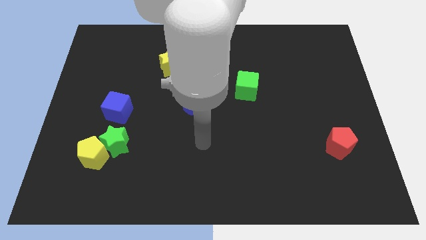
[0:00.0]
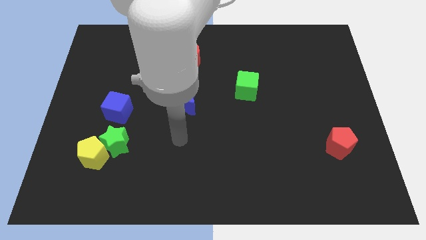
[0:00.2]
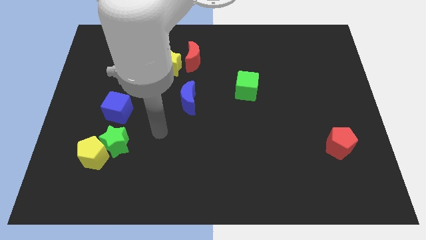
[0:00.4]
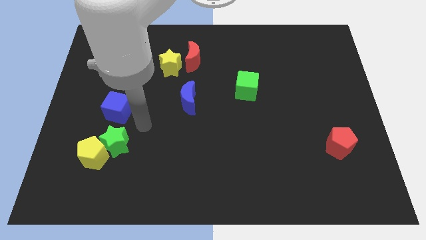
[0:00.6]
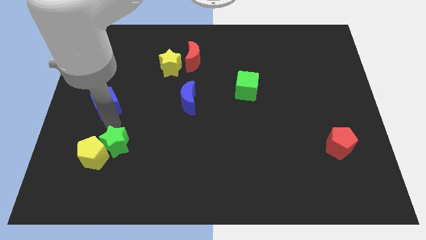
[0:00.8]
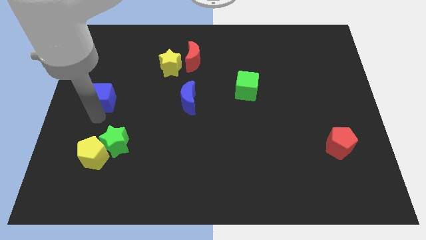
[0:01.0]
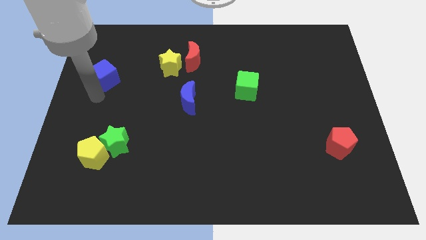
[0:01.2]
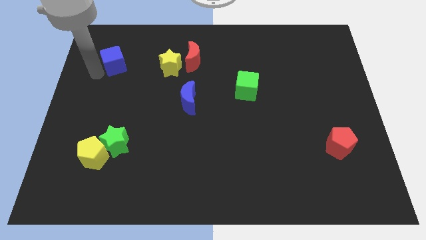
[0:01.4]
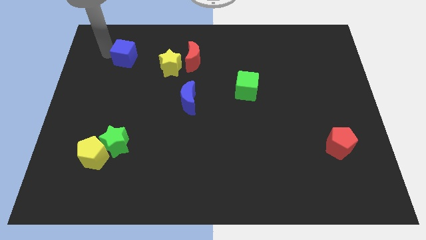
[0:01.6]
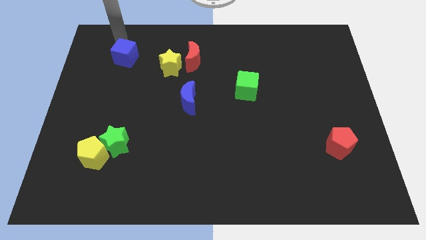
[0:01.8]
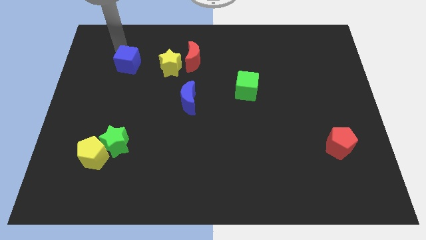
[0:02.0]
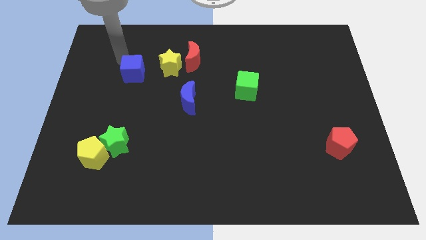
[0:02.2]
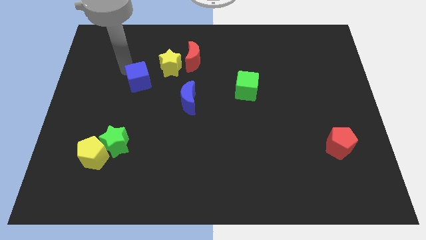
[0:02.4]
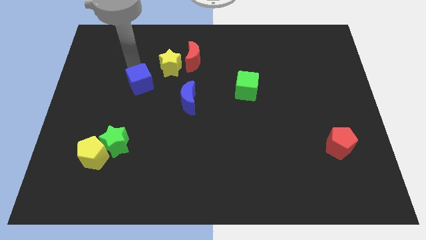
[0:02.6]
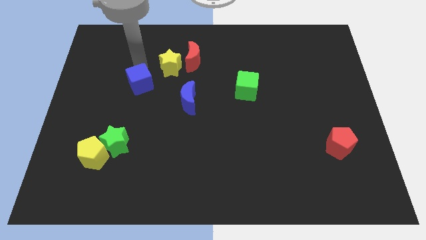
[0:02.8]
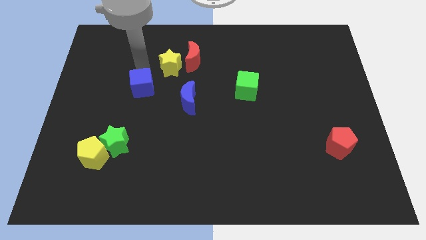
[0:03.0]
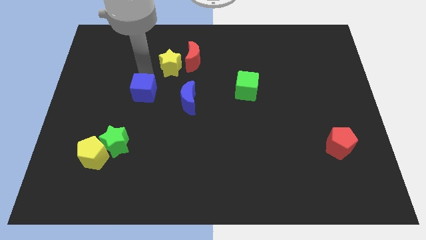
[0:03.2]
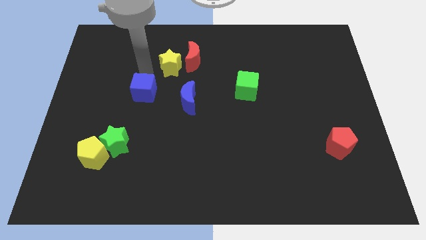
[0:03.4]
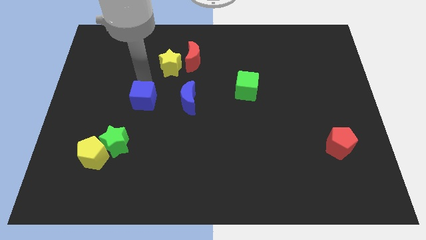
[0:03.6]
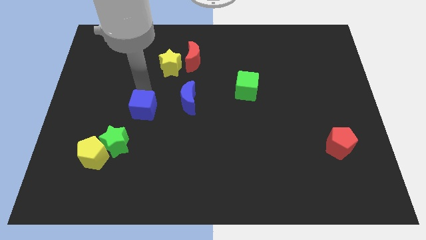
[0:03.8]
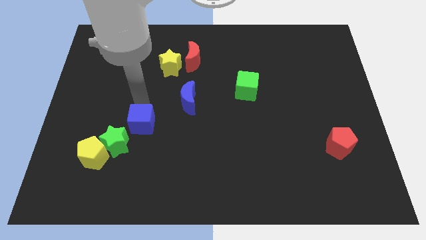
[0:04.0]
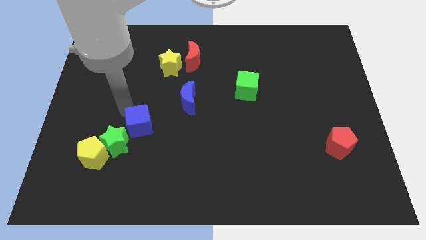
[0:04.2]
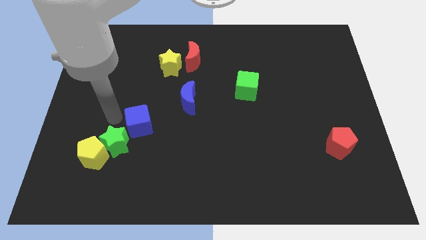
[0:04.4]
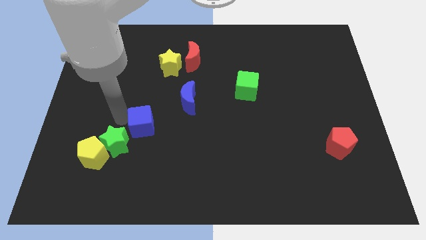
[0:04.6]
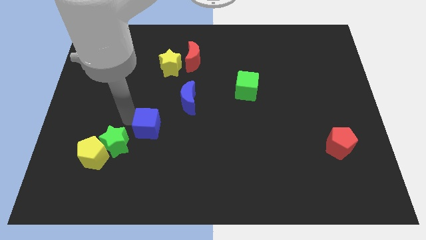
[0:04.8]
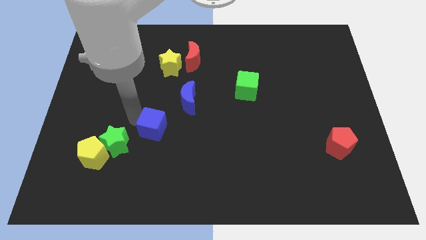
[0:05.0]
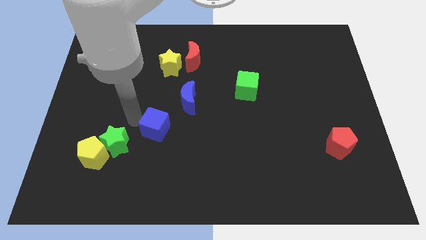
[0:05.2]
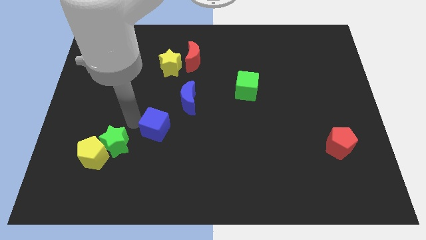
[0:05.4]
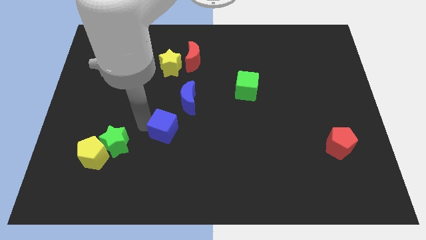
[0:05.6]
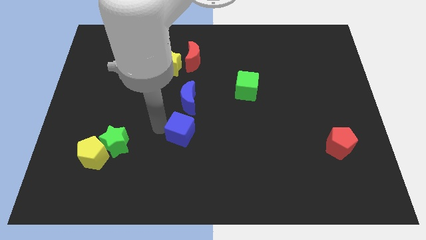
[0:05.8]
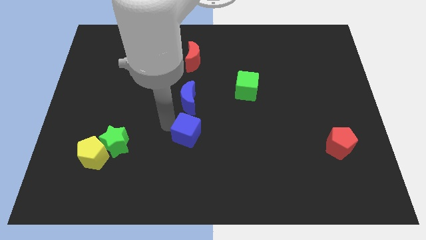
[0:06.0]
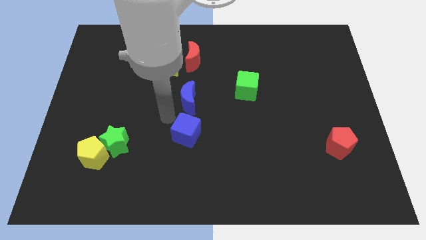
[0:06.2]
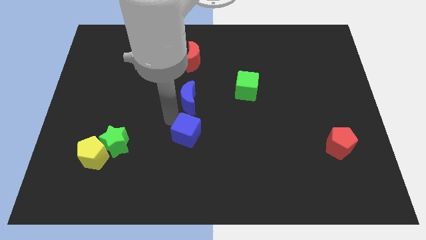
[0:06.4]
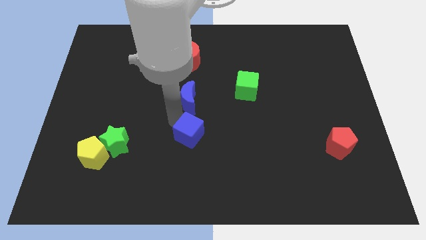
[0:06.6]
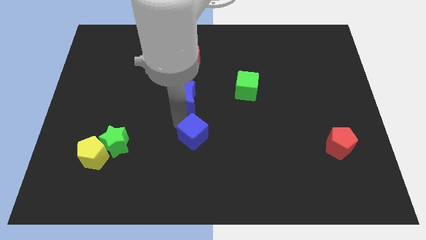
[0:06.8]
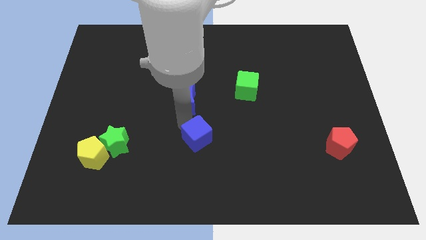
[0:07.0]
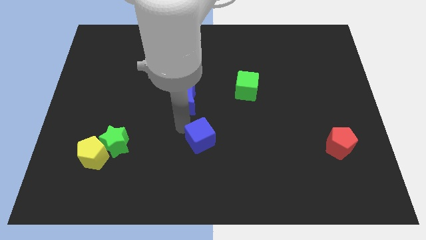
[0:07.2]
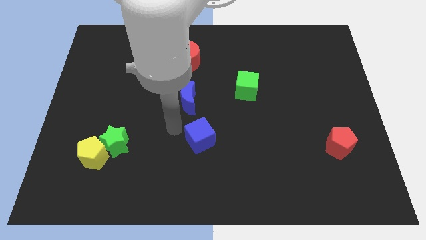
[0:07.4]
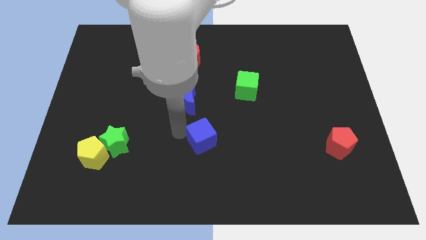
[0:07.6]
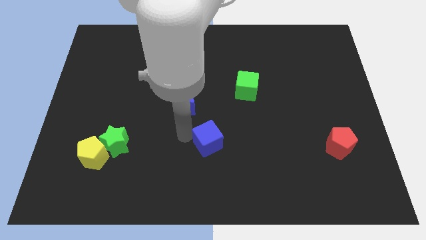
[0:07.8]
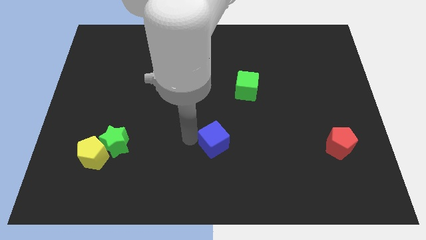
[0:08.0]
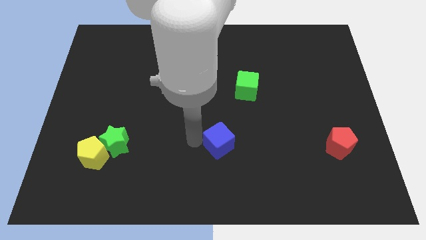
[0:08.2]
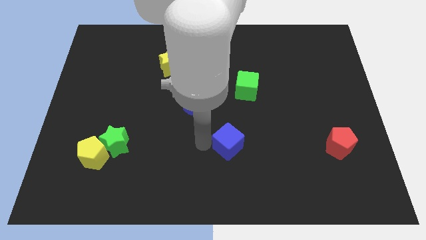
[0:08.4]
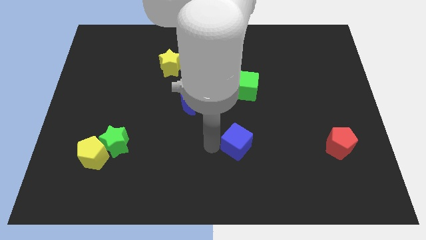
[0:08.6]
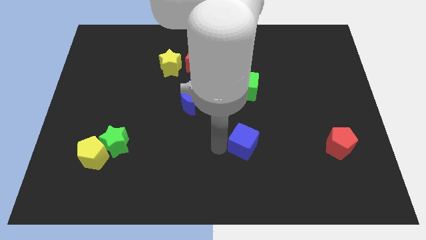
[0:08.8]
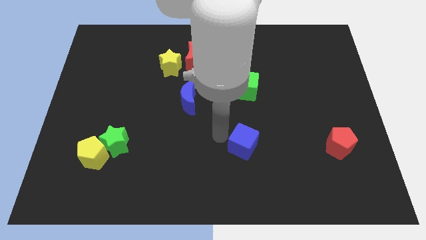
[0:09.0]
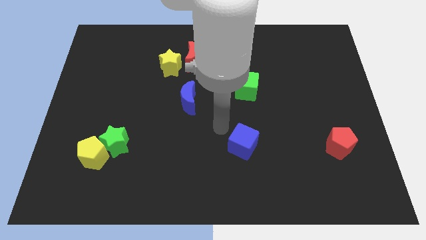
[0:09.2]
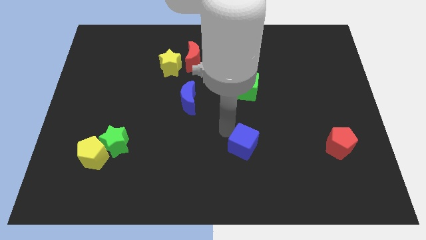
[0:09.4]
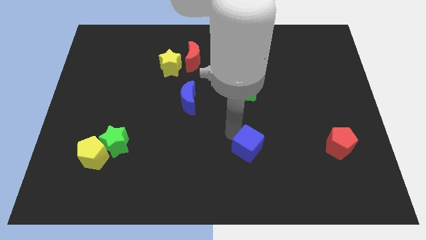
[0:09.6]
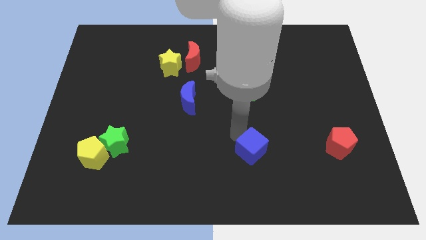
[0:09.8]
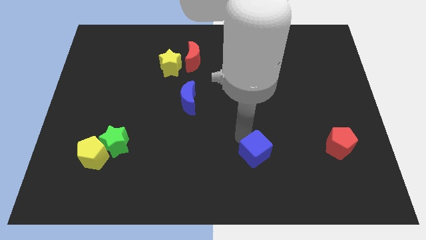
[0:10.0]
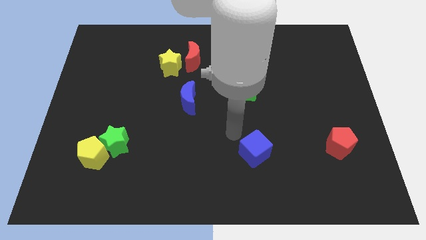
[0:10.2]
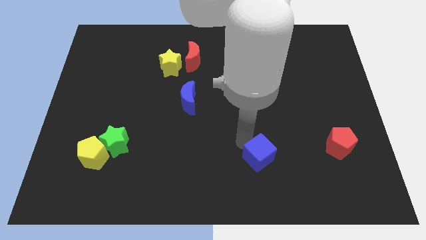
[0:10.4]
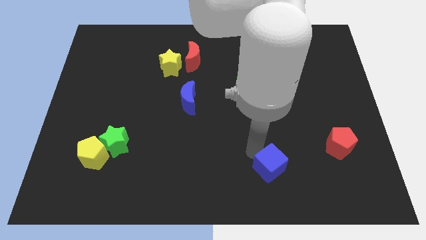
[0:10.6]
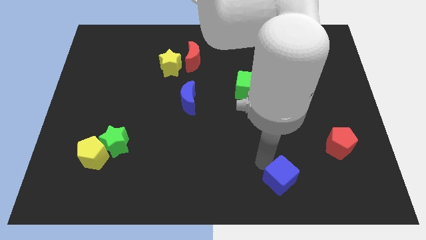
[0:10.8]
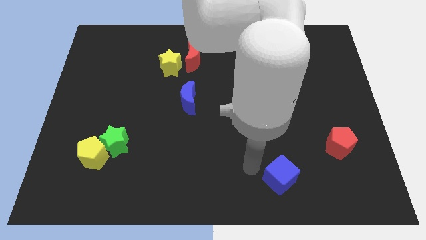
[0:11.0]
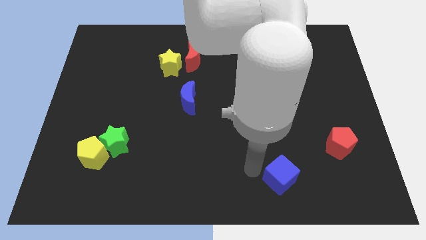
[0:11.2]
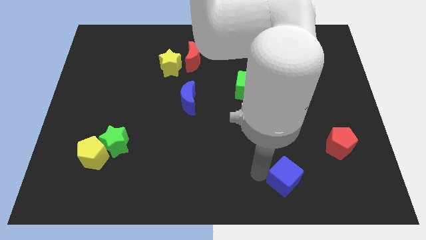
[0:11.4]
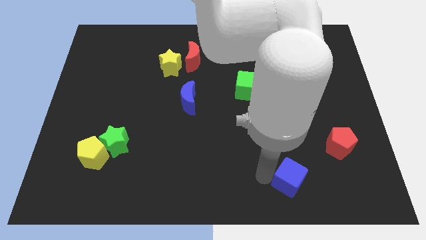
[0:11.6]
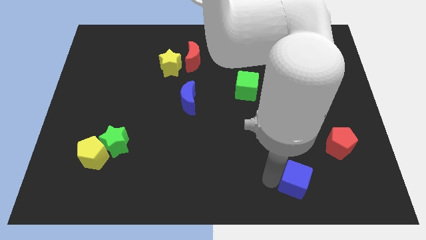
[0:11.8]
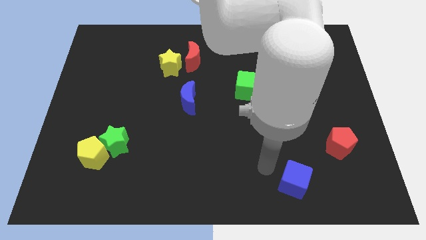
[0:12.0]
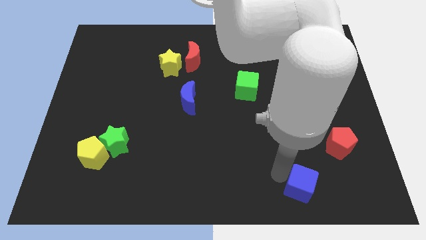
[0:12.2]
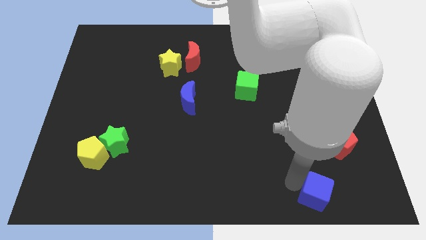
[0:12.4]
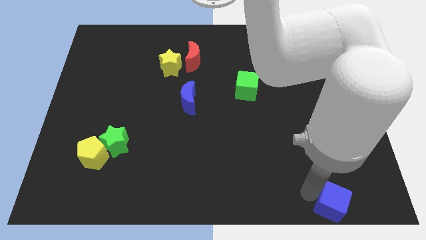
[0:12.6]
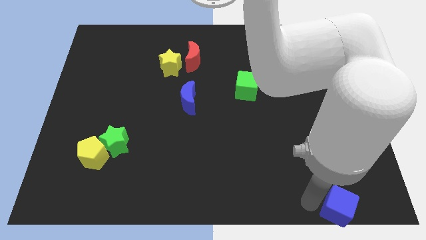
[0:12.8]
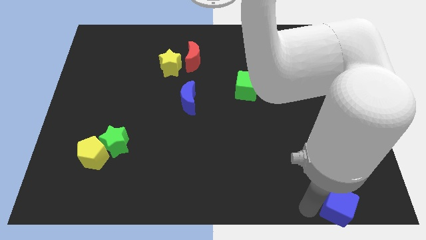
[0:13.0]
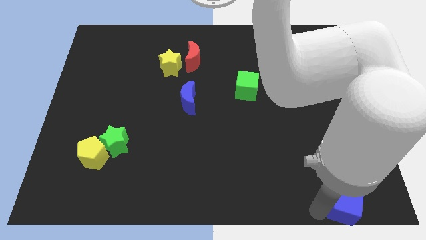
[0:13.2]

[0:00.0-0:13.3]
push the blue cube to the lower right corner
